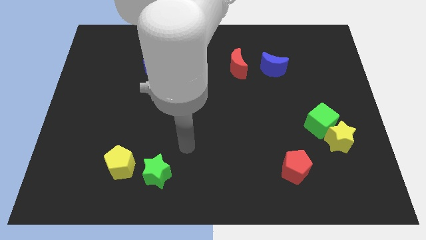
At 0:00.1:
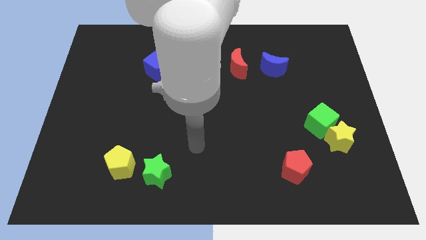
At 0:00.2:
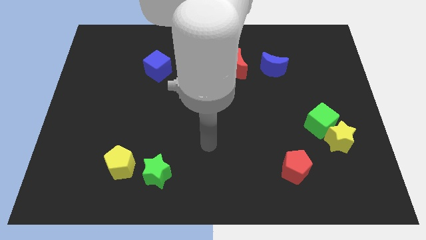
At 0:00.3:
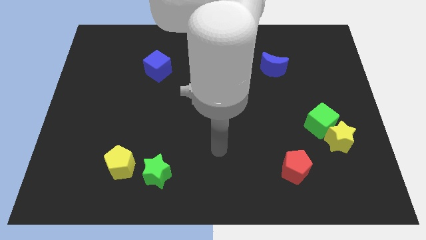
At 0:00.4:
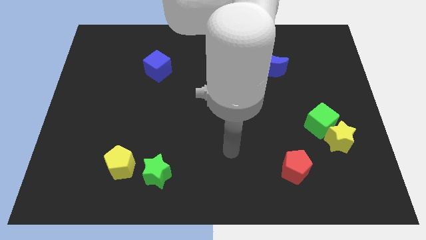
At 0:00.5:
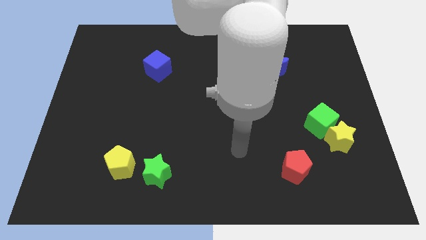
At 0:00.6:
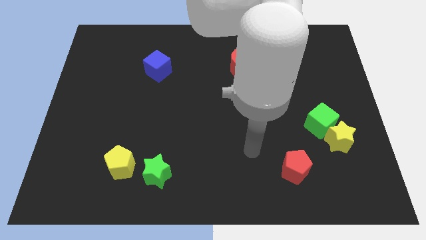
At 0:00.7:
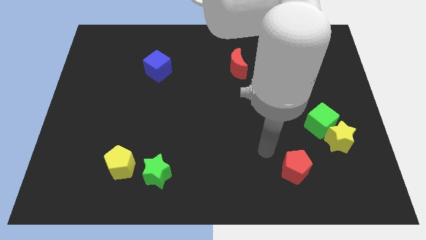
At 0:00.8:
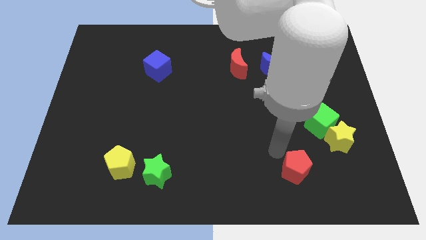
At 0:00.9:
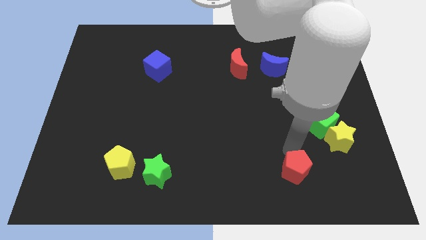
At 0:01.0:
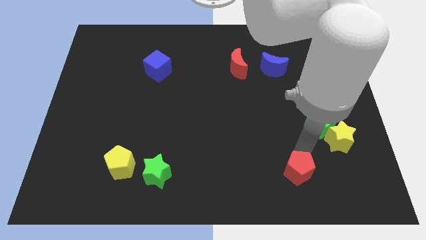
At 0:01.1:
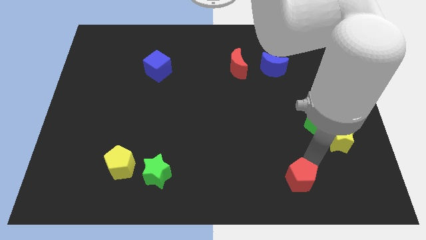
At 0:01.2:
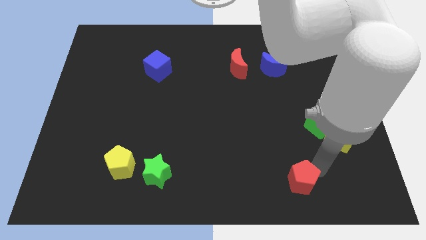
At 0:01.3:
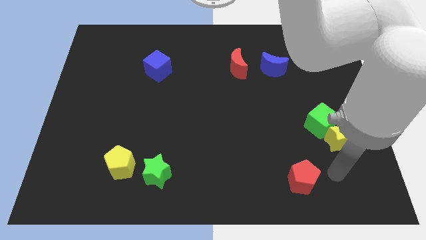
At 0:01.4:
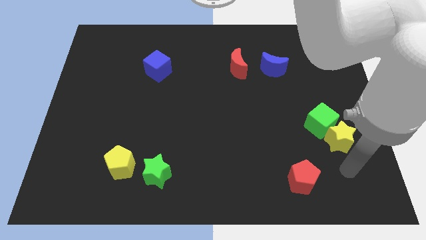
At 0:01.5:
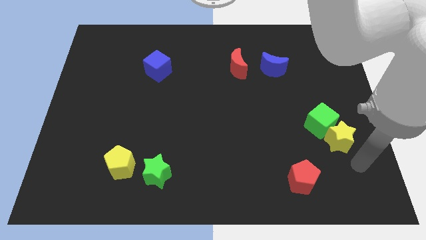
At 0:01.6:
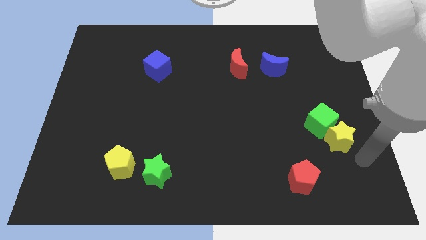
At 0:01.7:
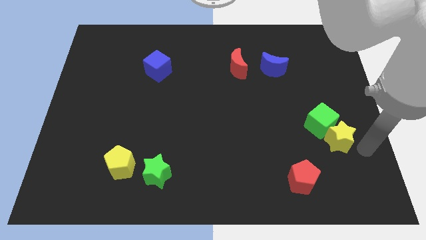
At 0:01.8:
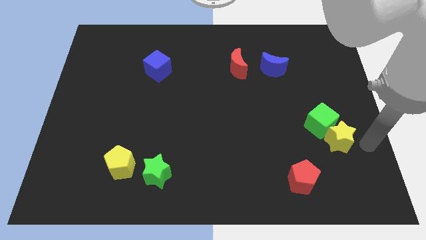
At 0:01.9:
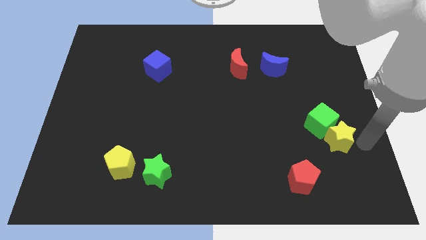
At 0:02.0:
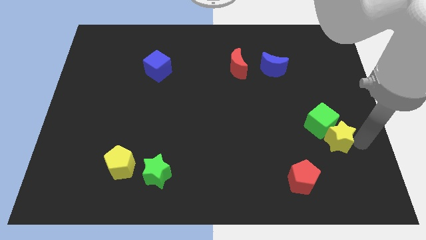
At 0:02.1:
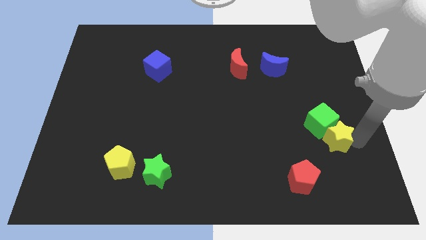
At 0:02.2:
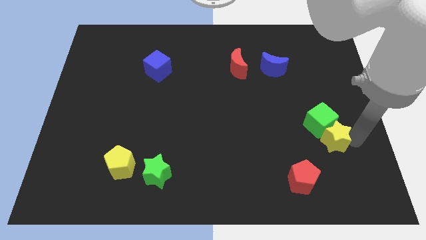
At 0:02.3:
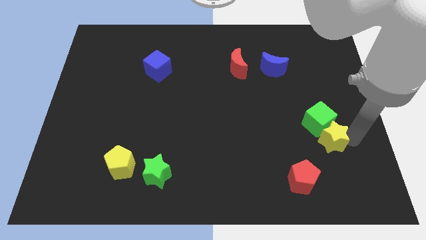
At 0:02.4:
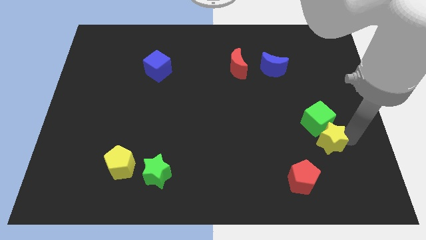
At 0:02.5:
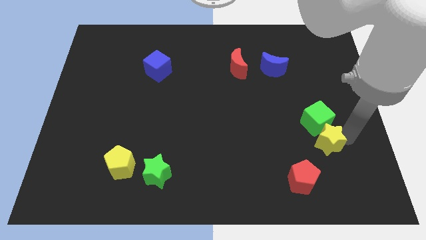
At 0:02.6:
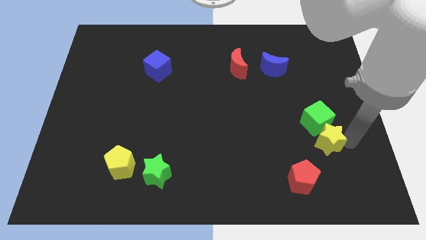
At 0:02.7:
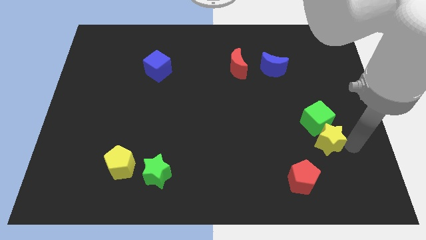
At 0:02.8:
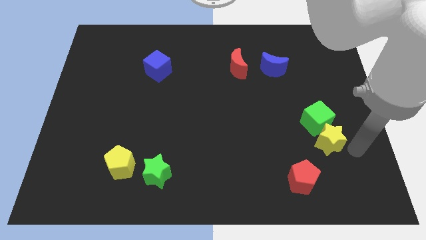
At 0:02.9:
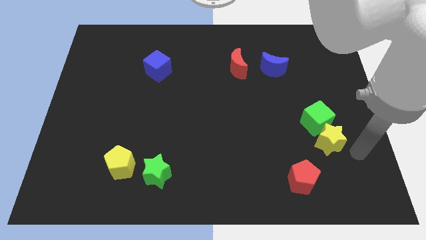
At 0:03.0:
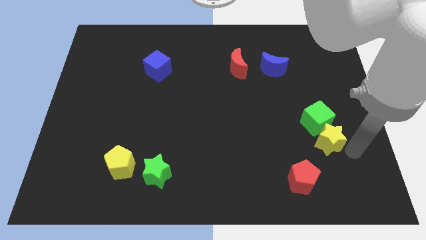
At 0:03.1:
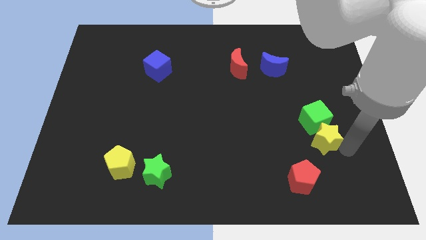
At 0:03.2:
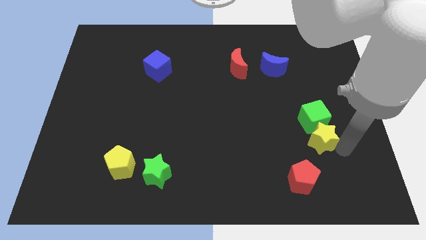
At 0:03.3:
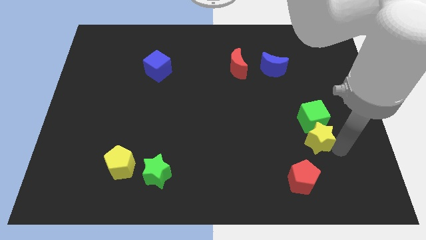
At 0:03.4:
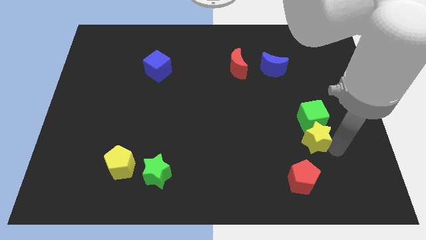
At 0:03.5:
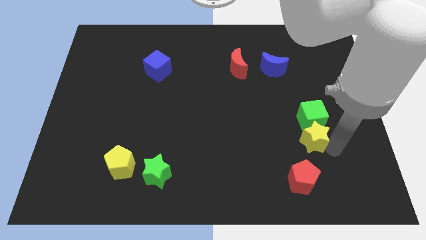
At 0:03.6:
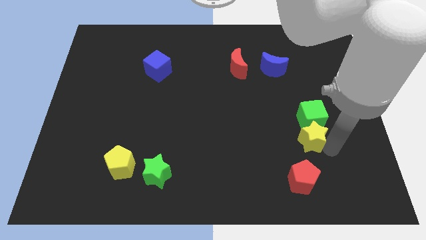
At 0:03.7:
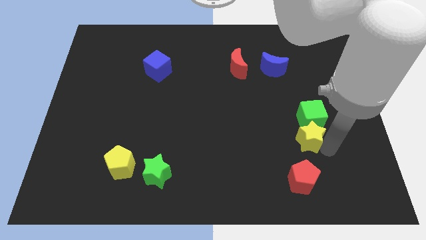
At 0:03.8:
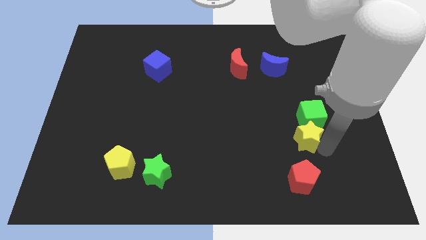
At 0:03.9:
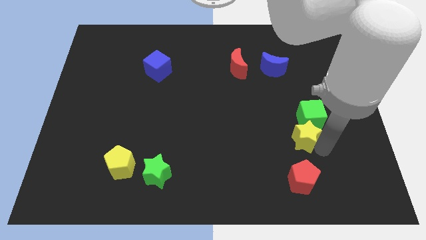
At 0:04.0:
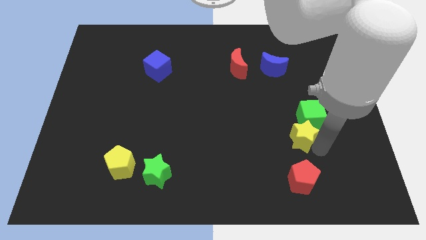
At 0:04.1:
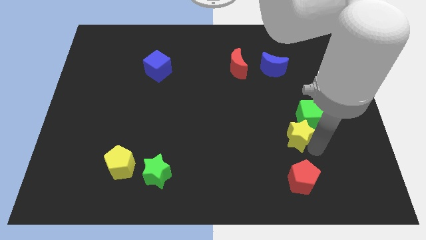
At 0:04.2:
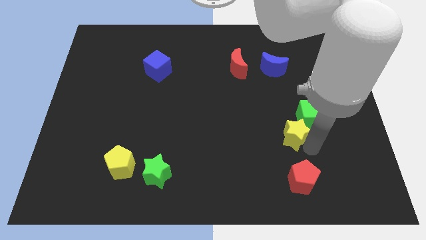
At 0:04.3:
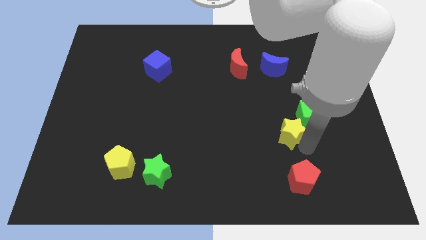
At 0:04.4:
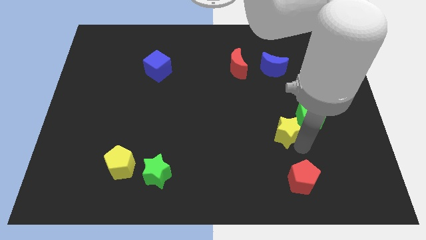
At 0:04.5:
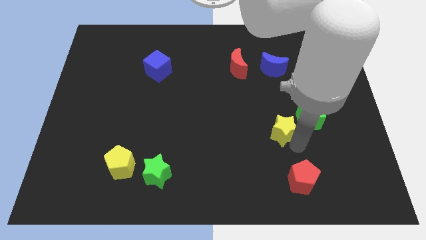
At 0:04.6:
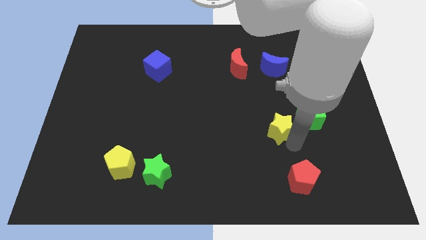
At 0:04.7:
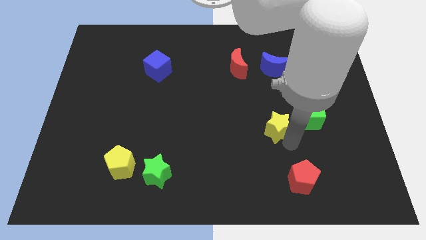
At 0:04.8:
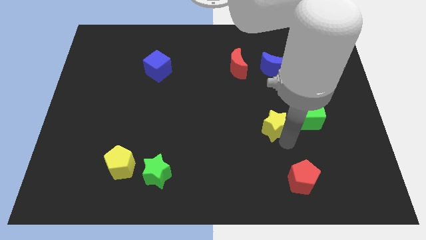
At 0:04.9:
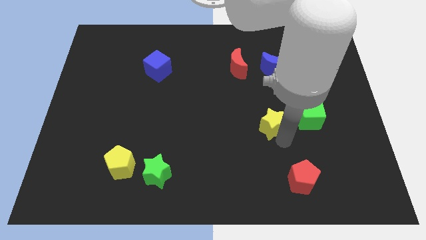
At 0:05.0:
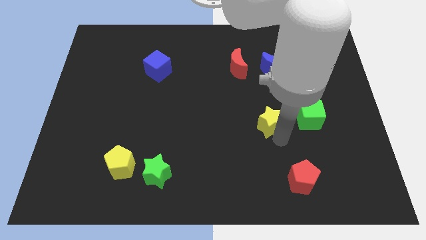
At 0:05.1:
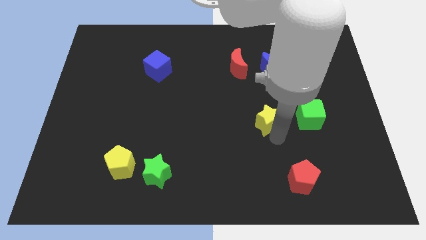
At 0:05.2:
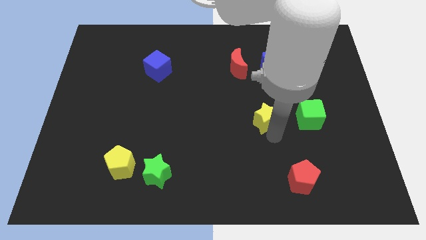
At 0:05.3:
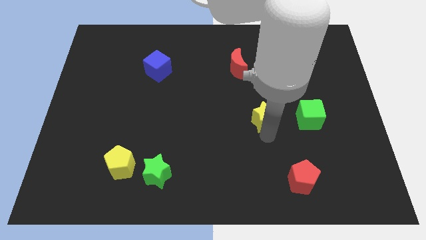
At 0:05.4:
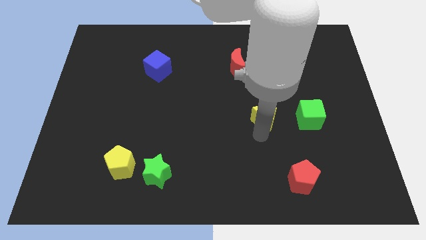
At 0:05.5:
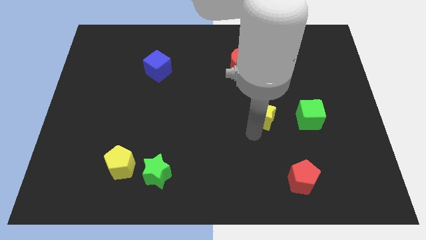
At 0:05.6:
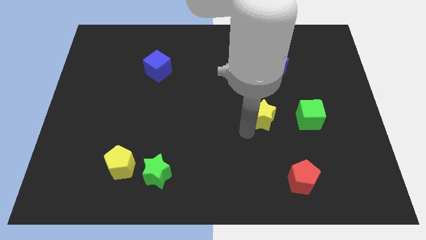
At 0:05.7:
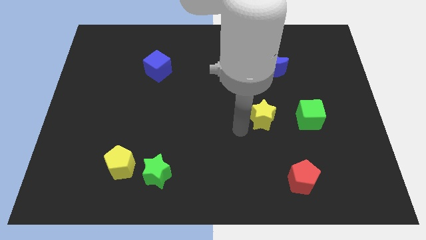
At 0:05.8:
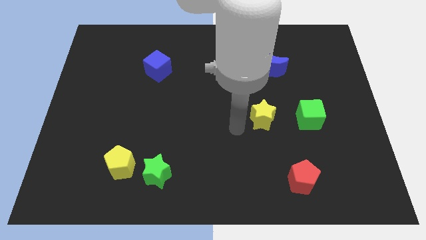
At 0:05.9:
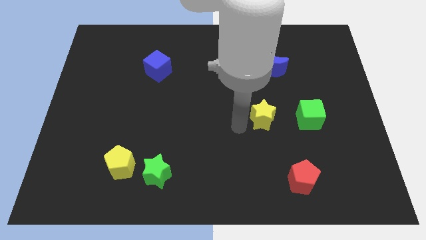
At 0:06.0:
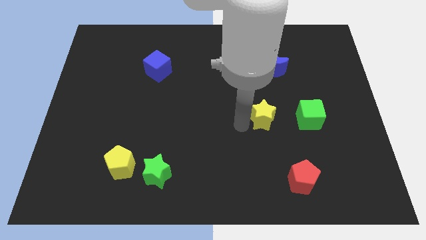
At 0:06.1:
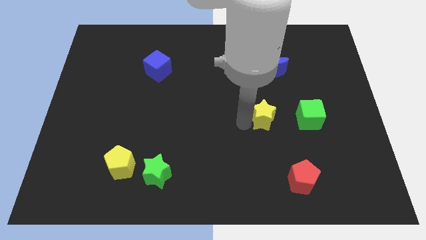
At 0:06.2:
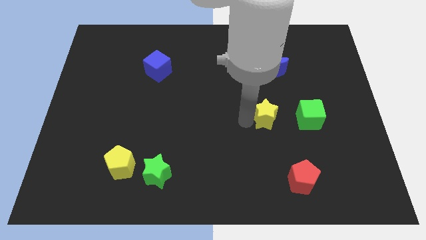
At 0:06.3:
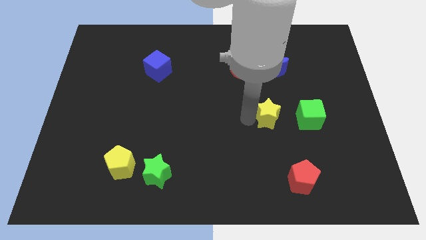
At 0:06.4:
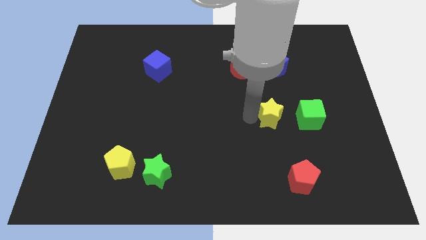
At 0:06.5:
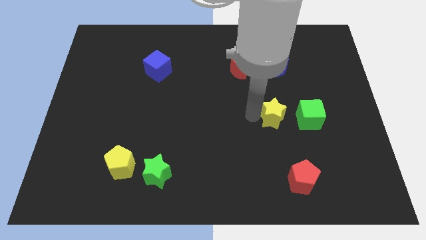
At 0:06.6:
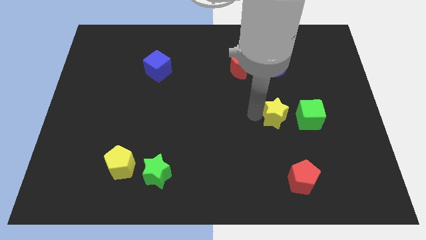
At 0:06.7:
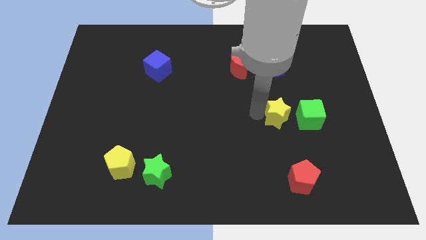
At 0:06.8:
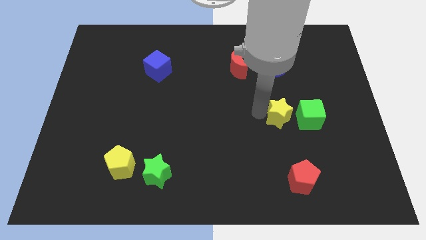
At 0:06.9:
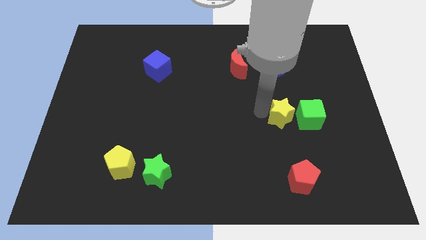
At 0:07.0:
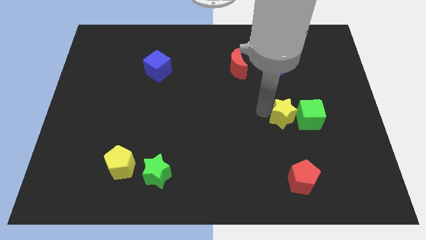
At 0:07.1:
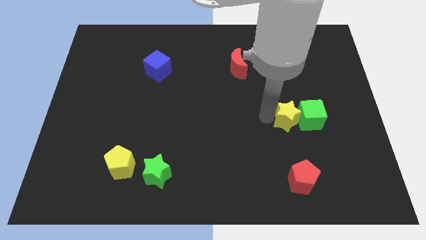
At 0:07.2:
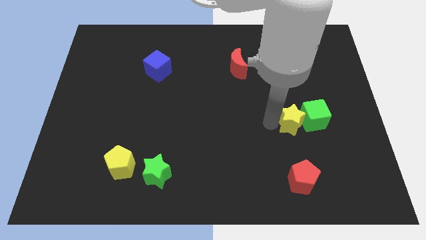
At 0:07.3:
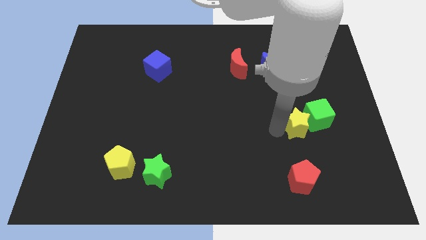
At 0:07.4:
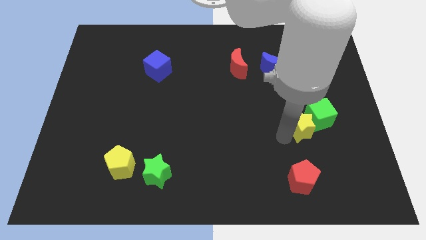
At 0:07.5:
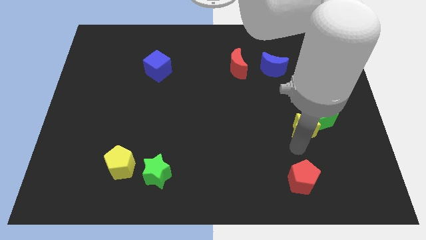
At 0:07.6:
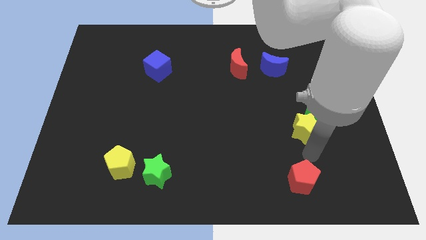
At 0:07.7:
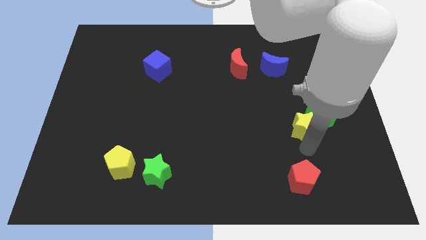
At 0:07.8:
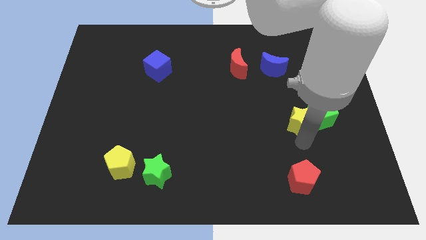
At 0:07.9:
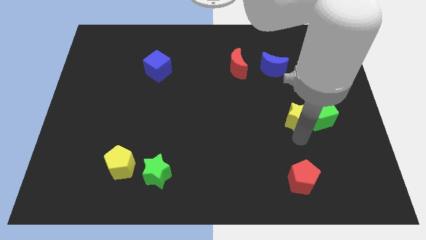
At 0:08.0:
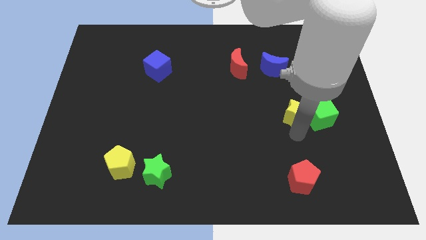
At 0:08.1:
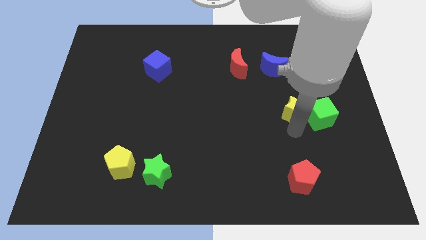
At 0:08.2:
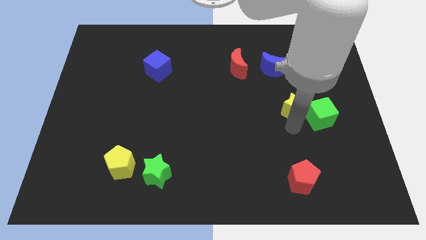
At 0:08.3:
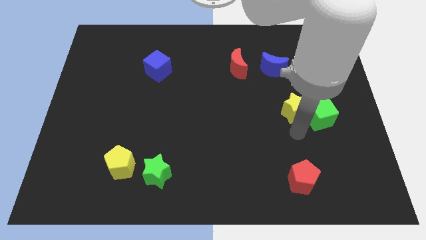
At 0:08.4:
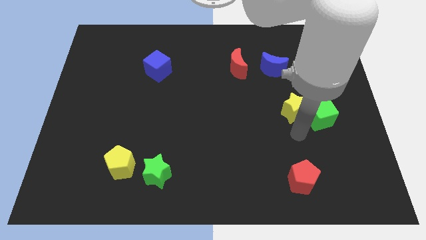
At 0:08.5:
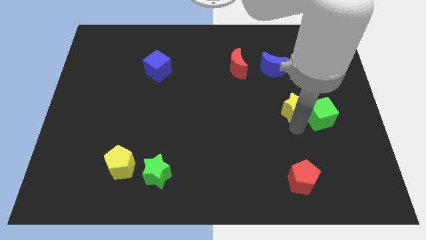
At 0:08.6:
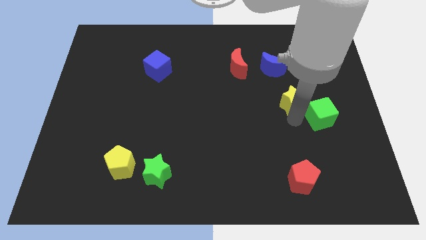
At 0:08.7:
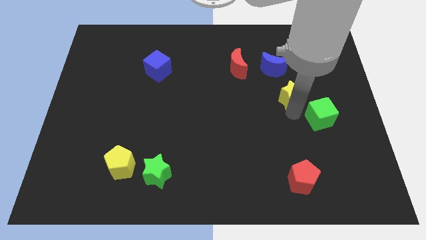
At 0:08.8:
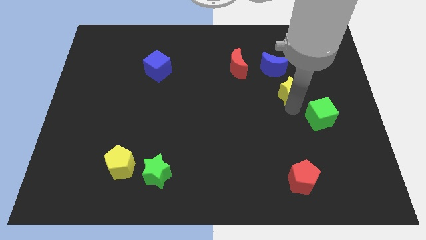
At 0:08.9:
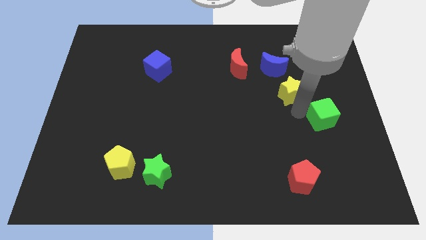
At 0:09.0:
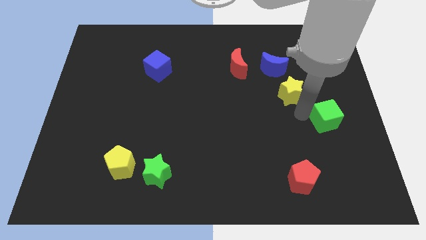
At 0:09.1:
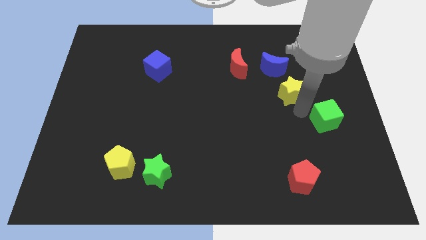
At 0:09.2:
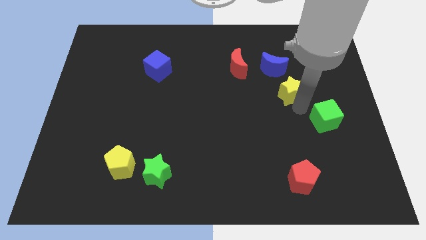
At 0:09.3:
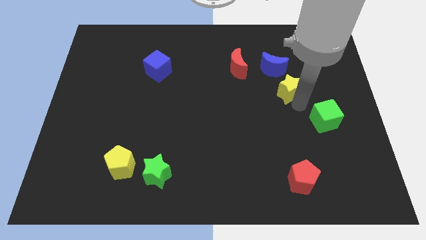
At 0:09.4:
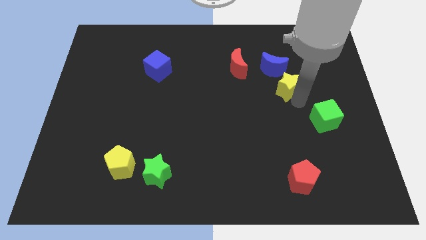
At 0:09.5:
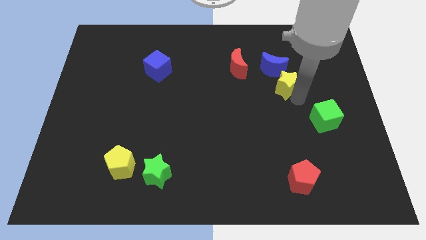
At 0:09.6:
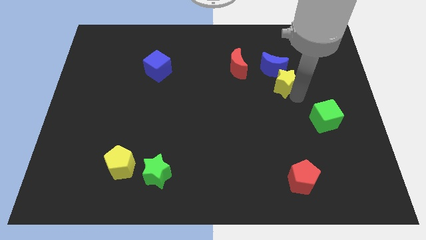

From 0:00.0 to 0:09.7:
slide the yellow star next to the blue moon
